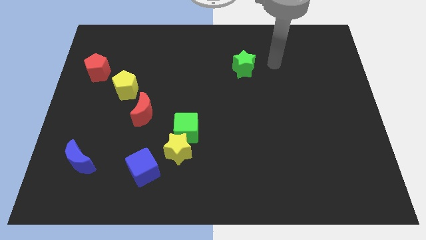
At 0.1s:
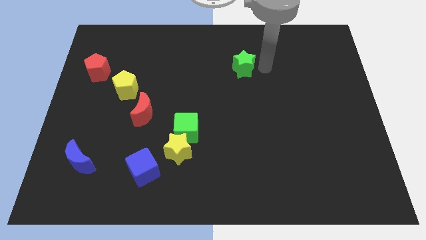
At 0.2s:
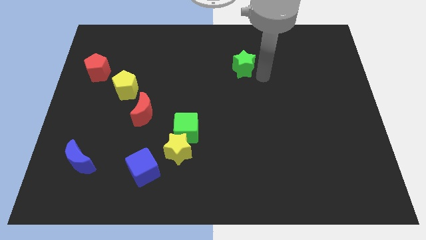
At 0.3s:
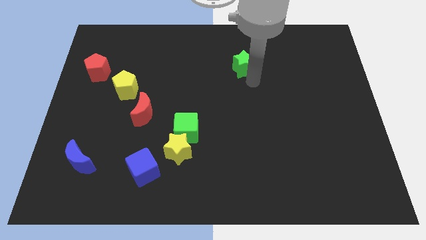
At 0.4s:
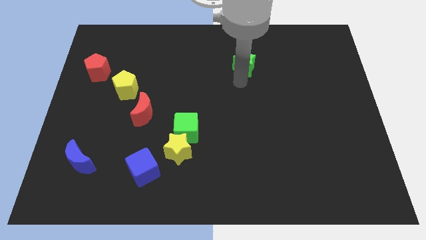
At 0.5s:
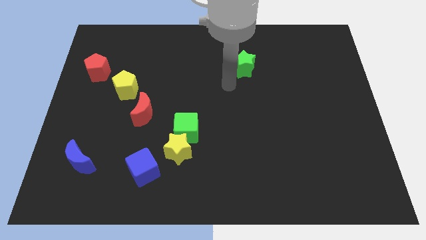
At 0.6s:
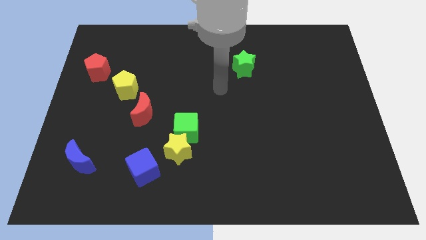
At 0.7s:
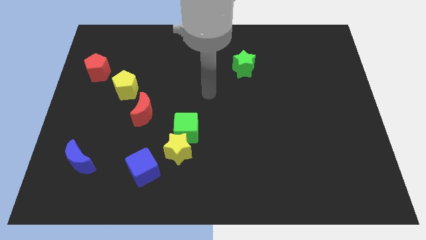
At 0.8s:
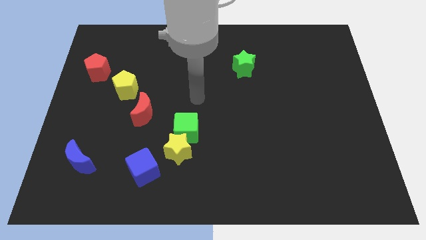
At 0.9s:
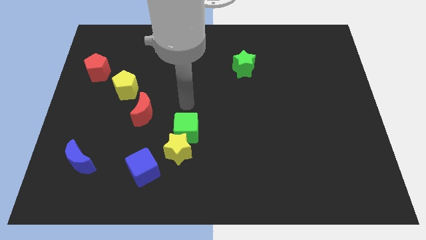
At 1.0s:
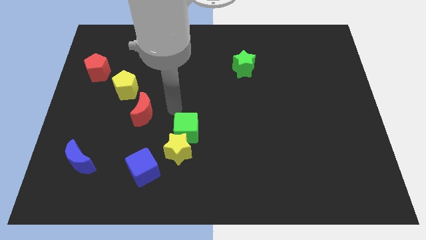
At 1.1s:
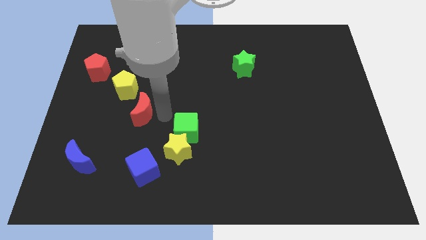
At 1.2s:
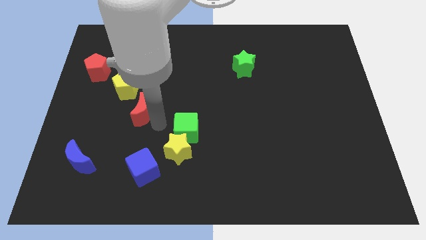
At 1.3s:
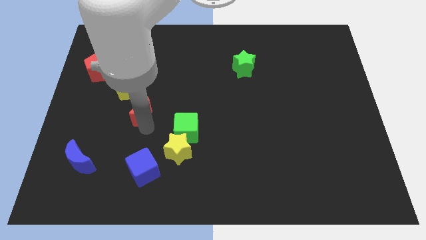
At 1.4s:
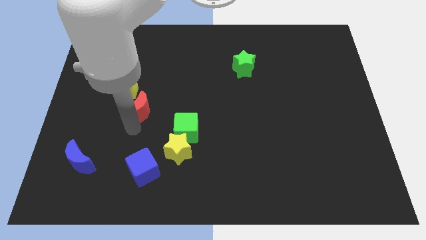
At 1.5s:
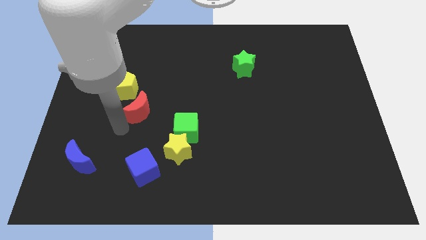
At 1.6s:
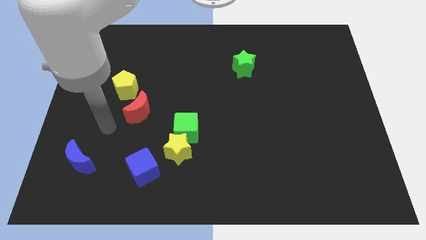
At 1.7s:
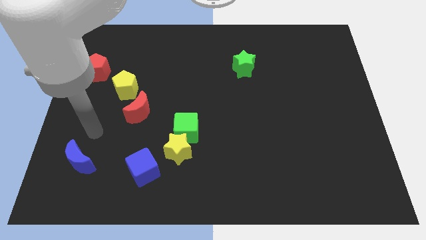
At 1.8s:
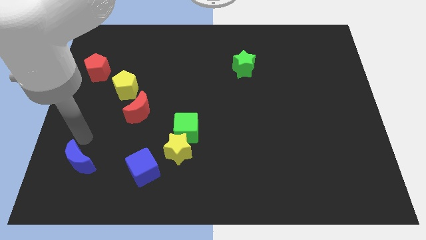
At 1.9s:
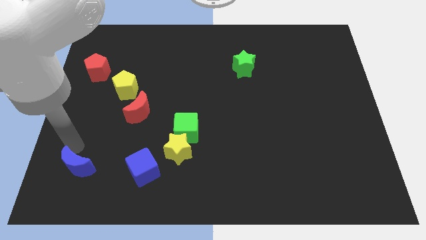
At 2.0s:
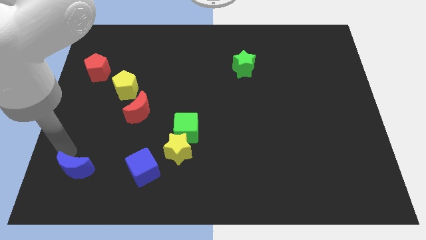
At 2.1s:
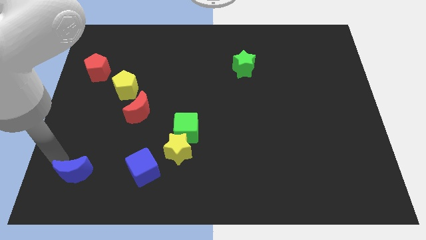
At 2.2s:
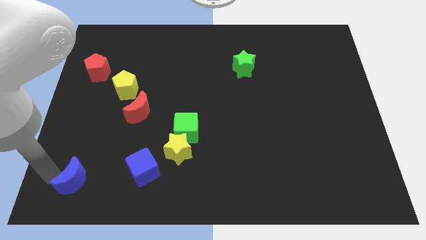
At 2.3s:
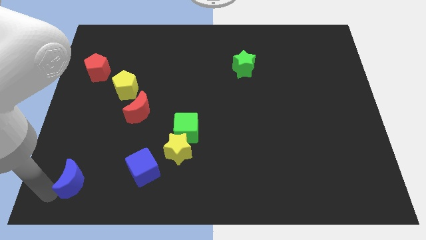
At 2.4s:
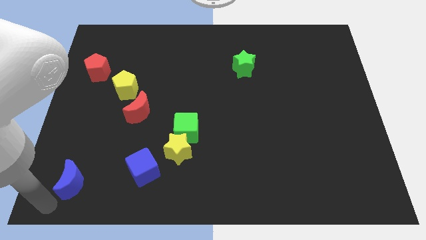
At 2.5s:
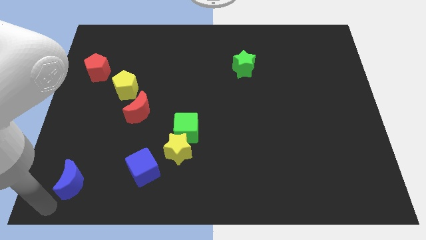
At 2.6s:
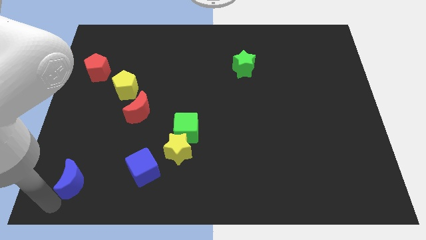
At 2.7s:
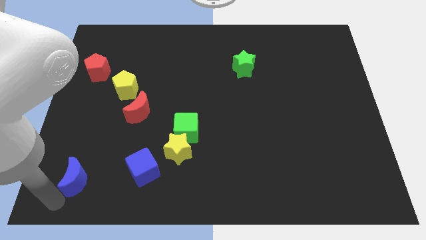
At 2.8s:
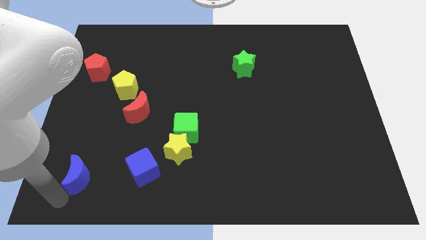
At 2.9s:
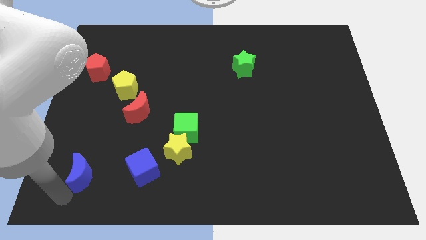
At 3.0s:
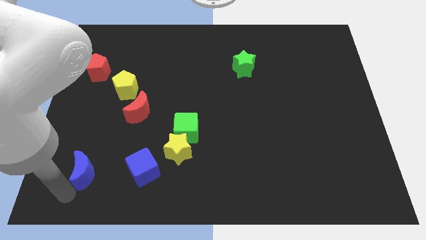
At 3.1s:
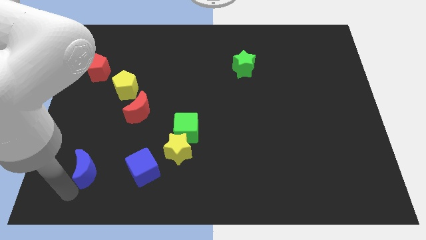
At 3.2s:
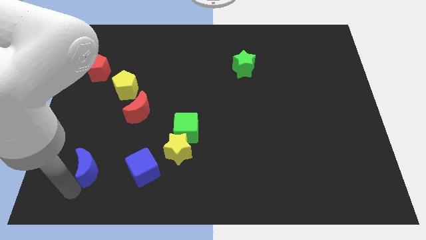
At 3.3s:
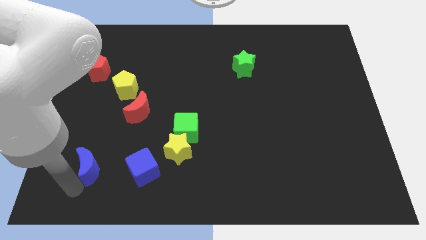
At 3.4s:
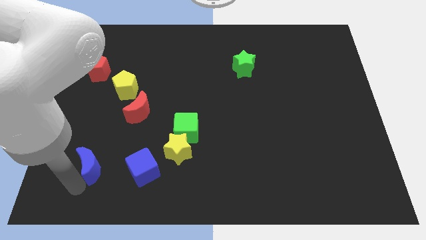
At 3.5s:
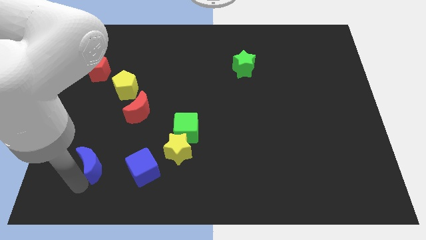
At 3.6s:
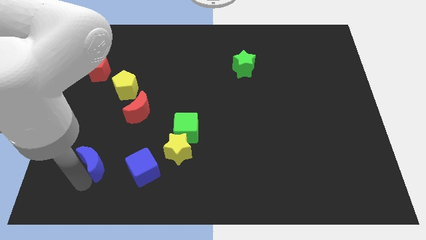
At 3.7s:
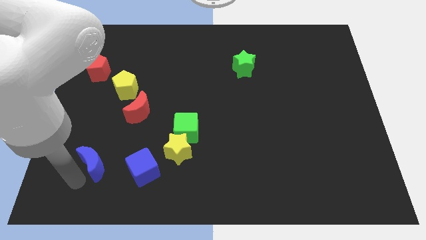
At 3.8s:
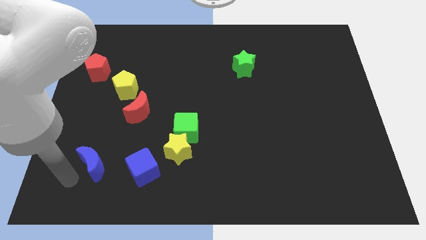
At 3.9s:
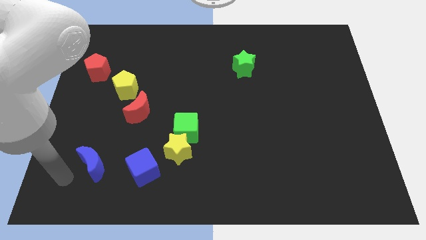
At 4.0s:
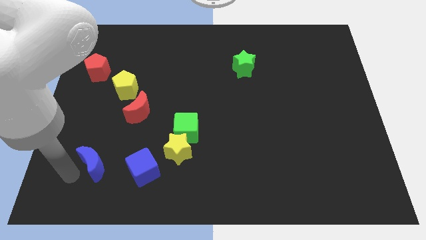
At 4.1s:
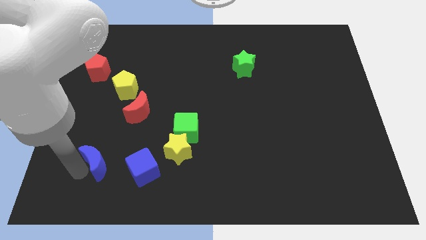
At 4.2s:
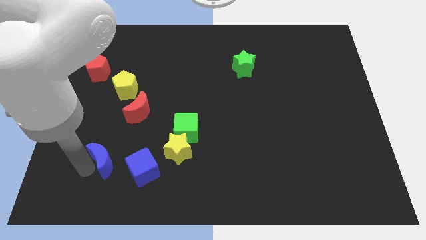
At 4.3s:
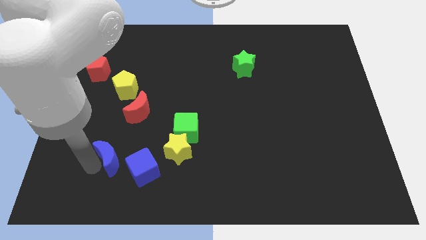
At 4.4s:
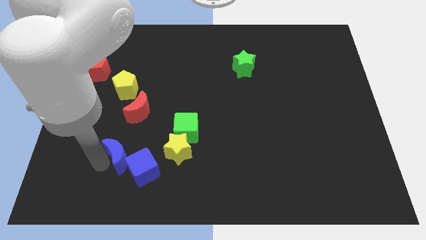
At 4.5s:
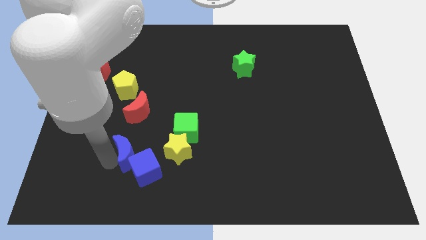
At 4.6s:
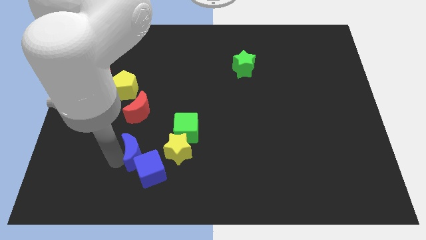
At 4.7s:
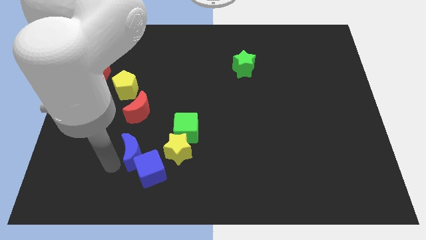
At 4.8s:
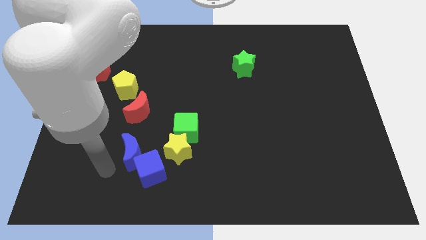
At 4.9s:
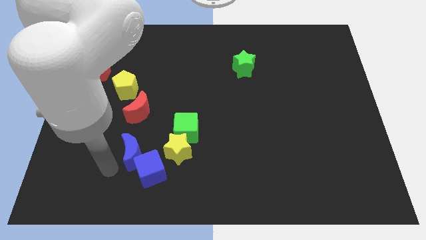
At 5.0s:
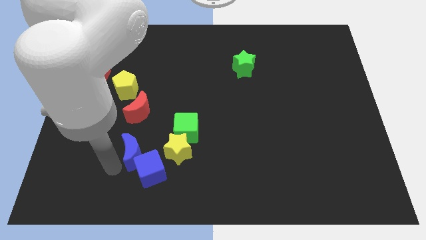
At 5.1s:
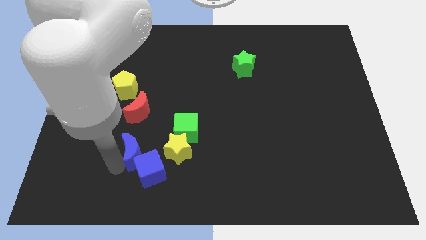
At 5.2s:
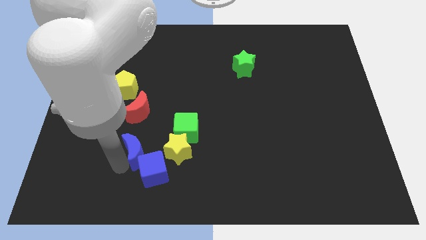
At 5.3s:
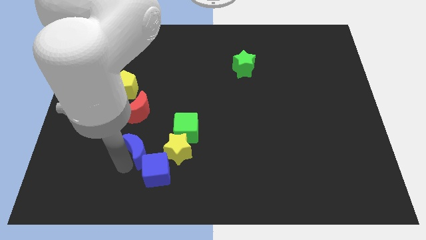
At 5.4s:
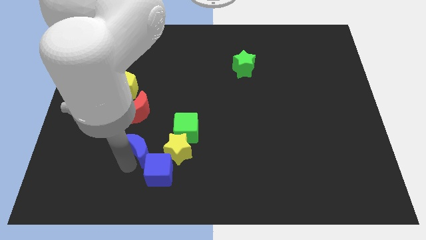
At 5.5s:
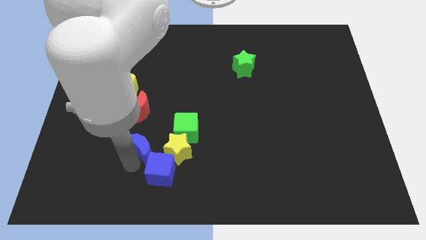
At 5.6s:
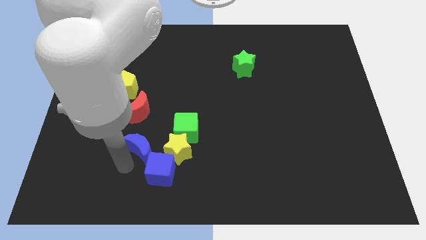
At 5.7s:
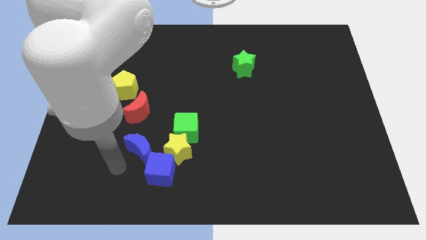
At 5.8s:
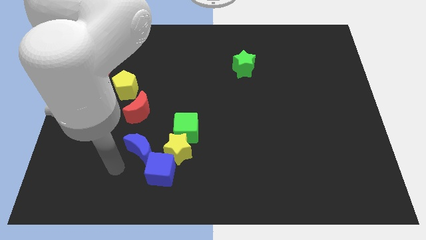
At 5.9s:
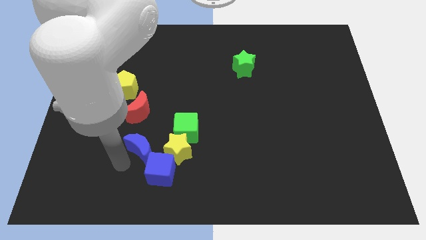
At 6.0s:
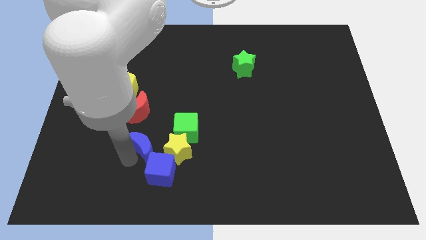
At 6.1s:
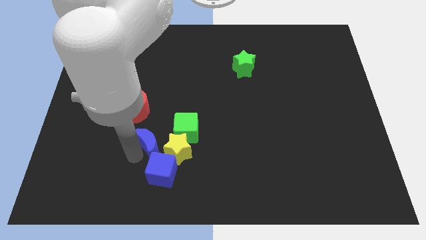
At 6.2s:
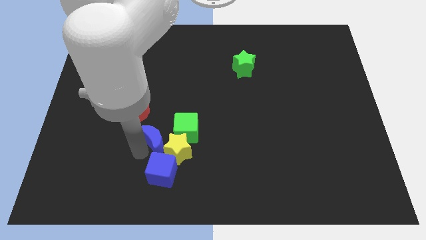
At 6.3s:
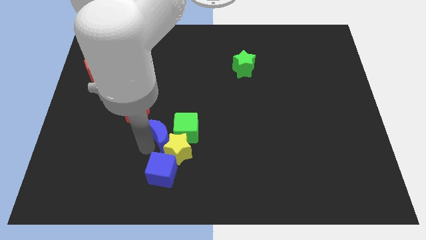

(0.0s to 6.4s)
push the blue moon next to the green cube

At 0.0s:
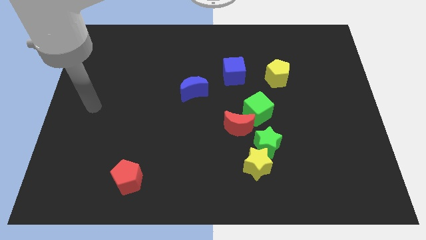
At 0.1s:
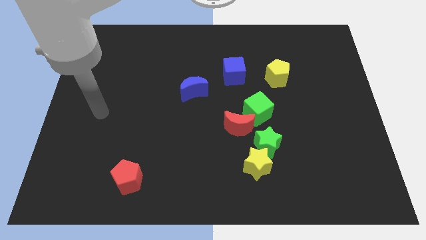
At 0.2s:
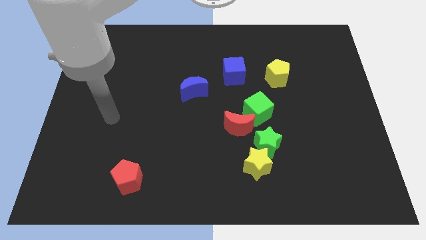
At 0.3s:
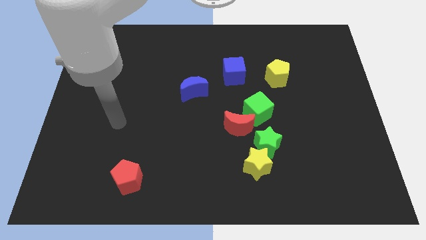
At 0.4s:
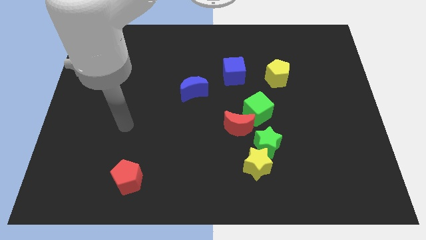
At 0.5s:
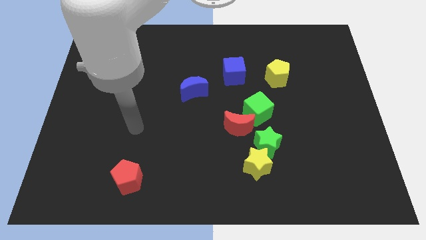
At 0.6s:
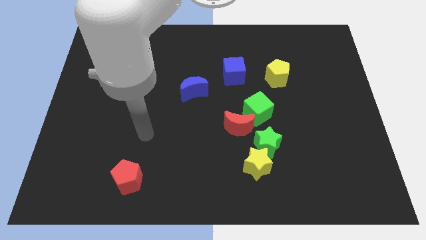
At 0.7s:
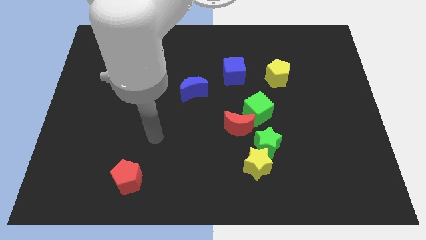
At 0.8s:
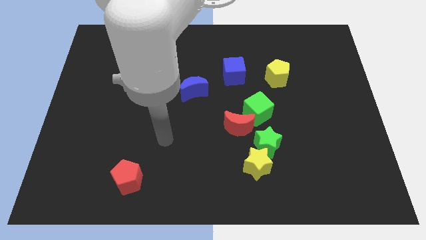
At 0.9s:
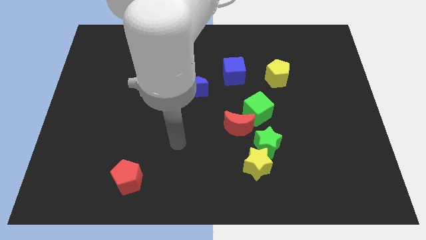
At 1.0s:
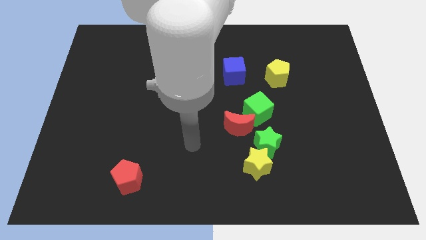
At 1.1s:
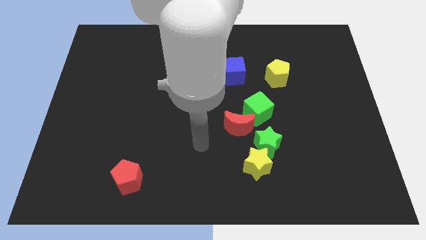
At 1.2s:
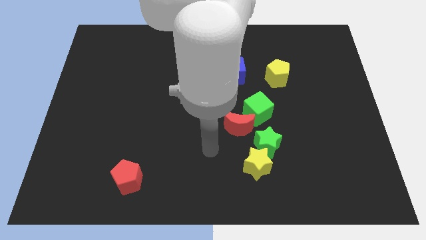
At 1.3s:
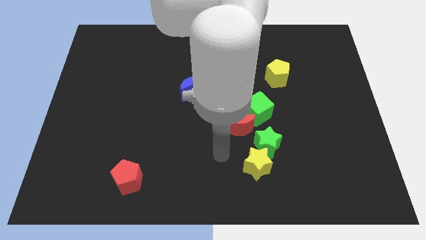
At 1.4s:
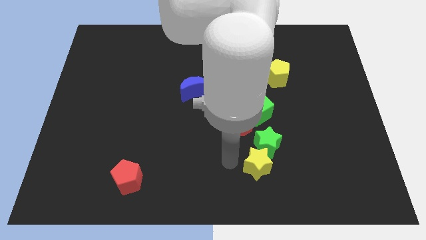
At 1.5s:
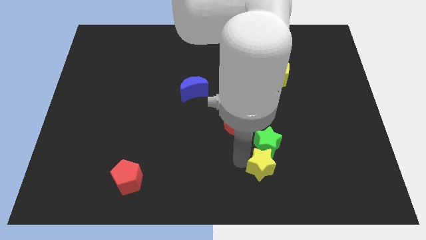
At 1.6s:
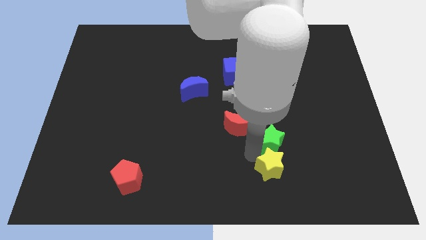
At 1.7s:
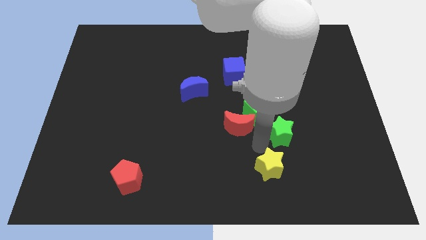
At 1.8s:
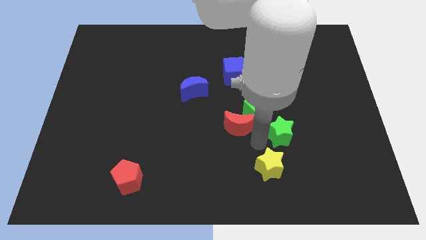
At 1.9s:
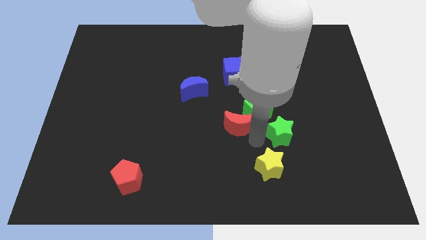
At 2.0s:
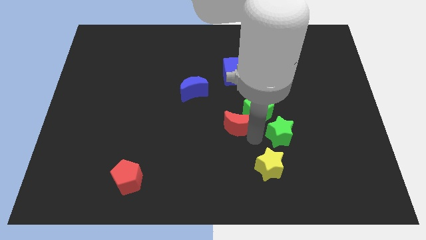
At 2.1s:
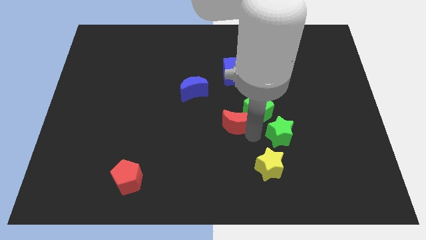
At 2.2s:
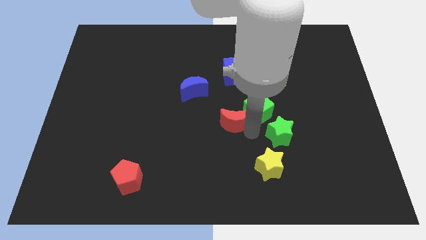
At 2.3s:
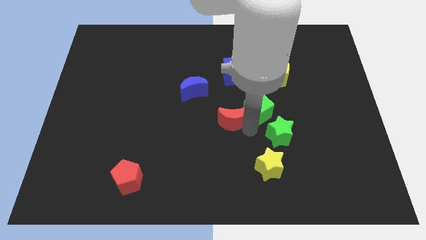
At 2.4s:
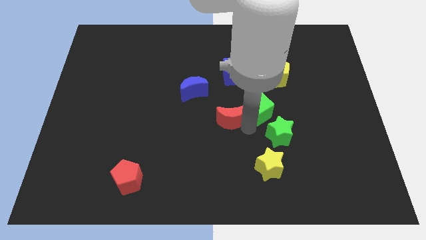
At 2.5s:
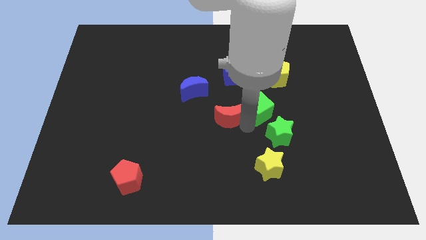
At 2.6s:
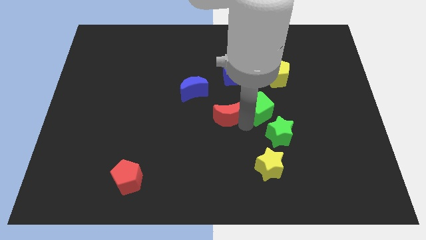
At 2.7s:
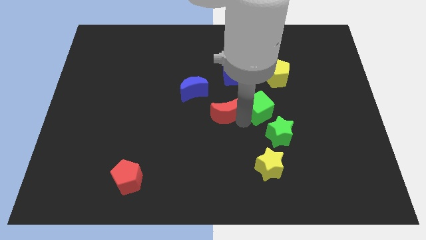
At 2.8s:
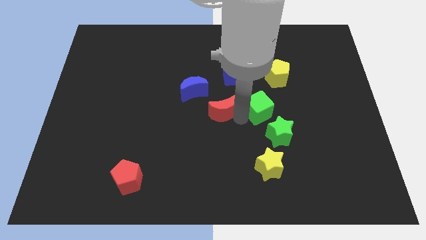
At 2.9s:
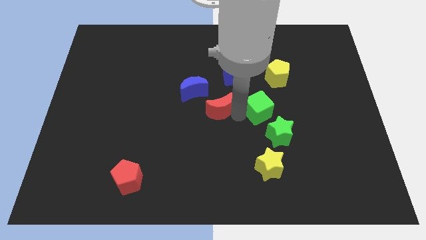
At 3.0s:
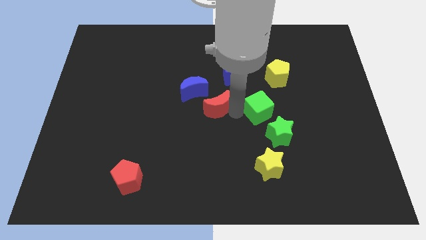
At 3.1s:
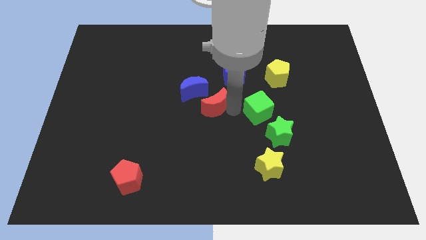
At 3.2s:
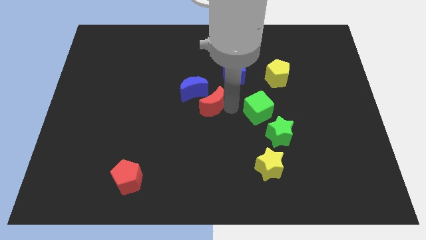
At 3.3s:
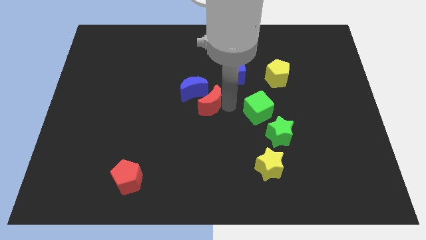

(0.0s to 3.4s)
move the red moon to the blue moon
